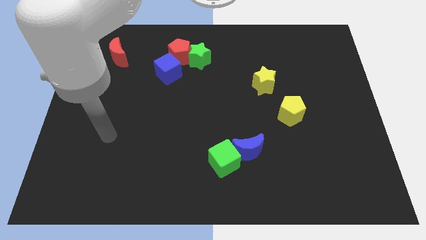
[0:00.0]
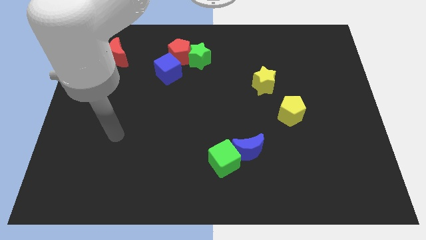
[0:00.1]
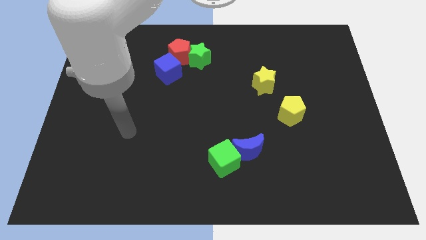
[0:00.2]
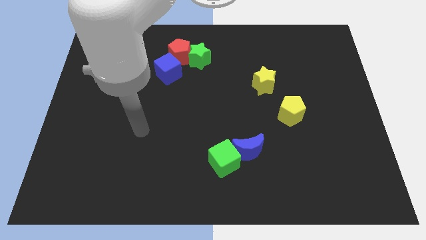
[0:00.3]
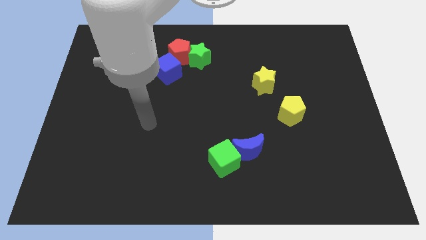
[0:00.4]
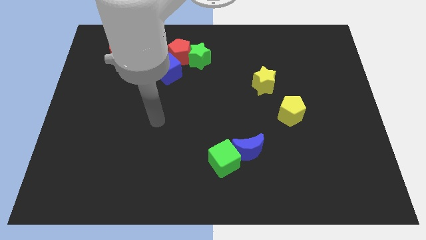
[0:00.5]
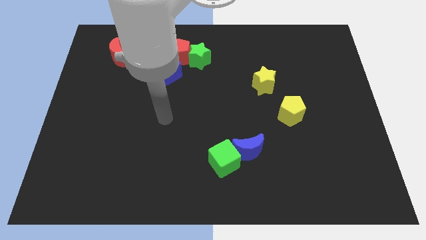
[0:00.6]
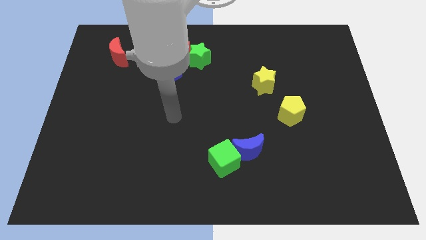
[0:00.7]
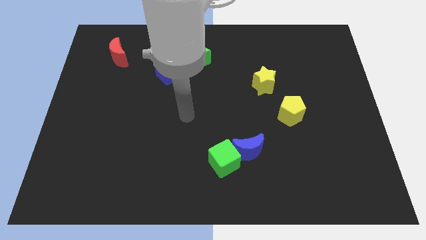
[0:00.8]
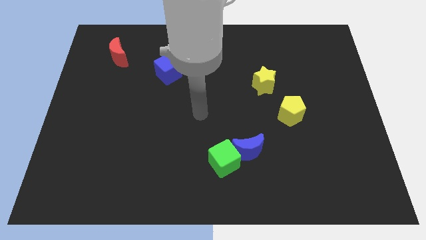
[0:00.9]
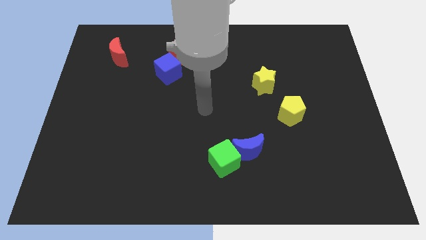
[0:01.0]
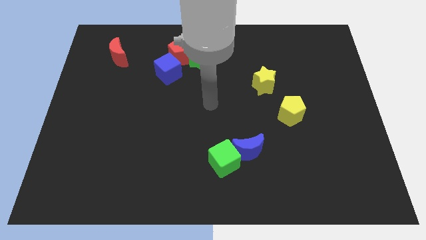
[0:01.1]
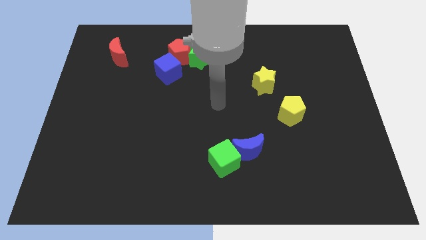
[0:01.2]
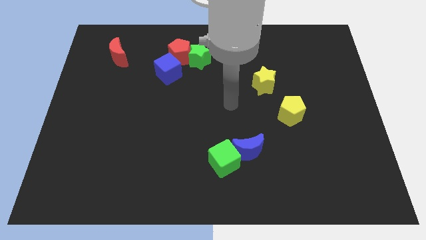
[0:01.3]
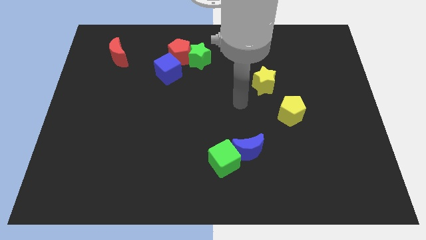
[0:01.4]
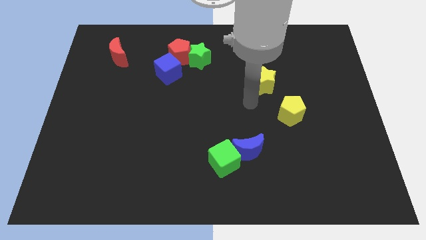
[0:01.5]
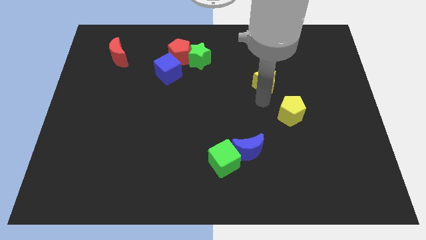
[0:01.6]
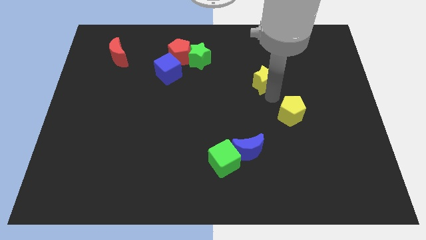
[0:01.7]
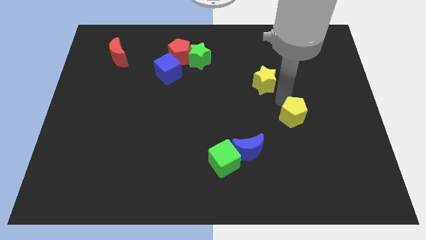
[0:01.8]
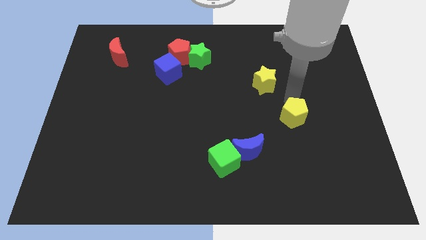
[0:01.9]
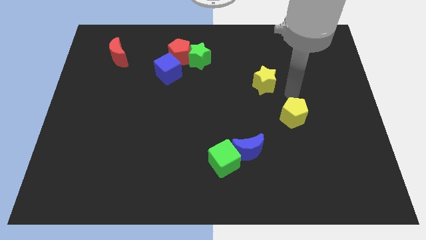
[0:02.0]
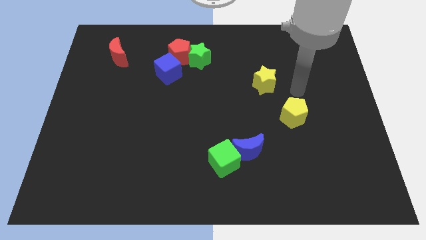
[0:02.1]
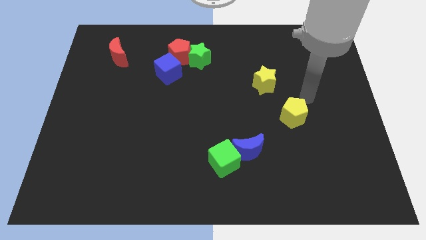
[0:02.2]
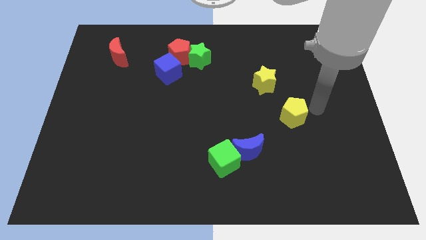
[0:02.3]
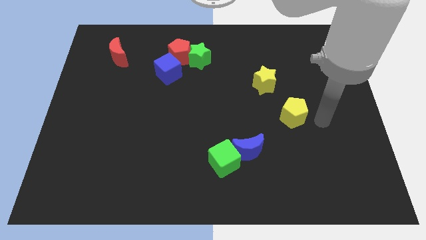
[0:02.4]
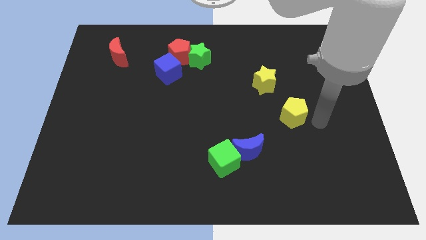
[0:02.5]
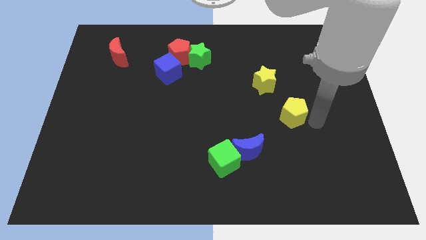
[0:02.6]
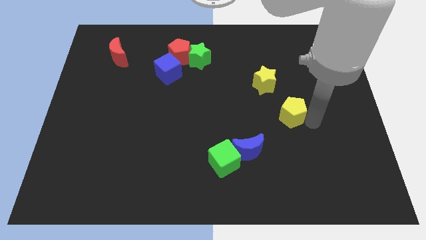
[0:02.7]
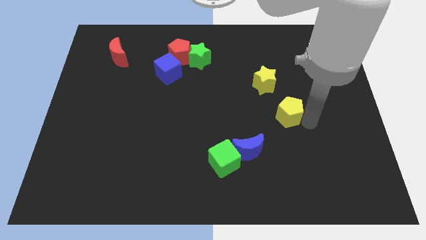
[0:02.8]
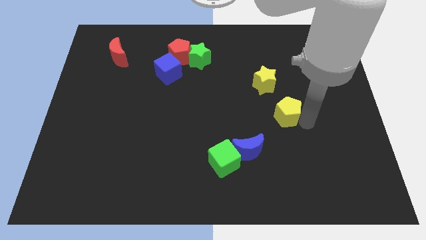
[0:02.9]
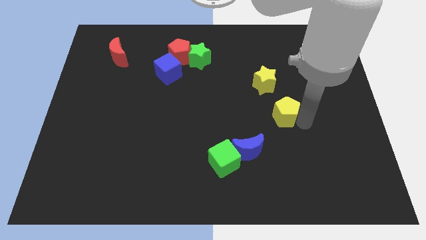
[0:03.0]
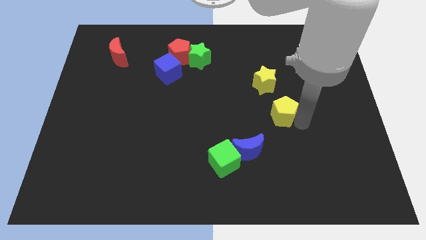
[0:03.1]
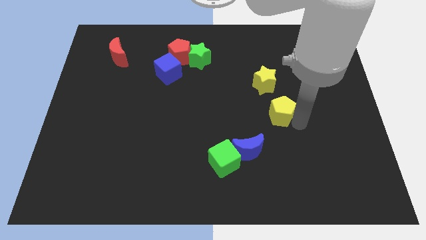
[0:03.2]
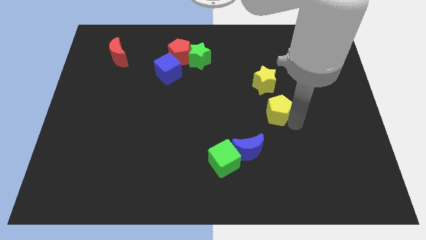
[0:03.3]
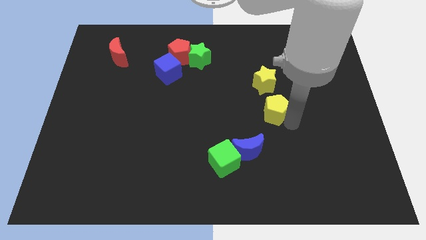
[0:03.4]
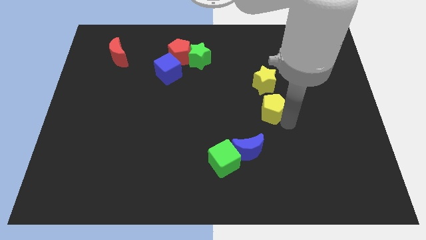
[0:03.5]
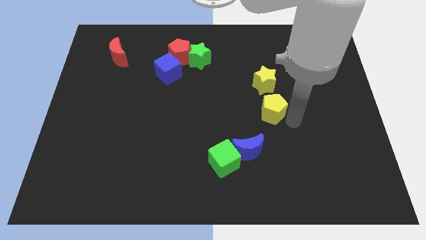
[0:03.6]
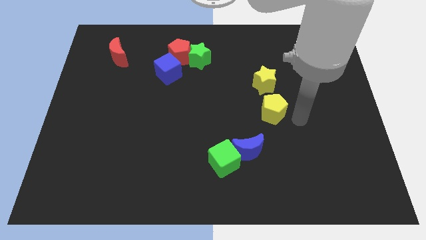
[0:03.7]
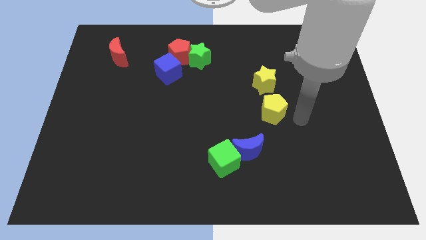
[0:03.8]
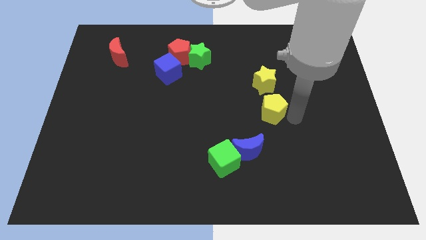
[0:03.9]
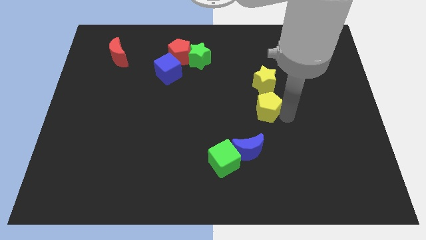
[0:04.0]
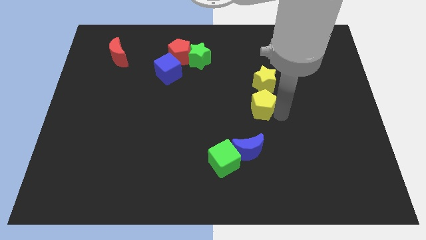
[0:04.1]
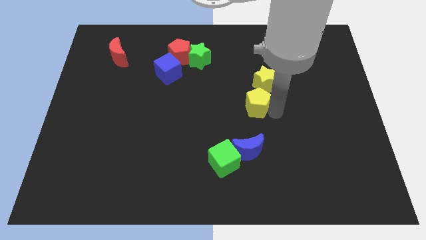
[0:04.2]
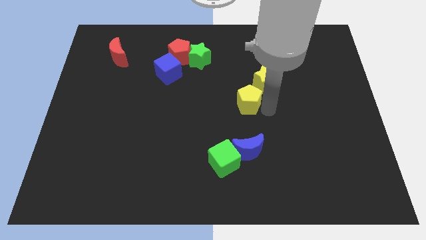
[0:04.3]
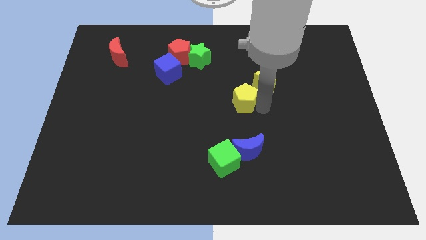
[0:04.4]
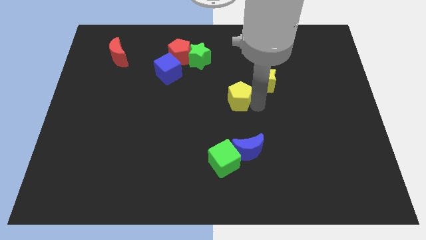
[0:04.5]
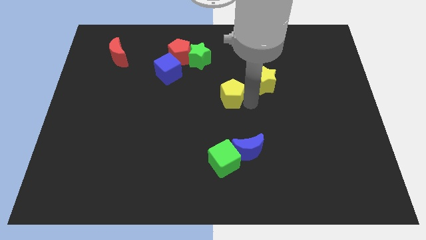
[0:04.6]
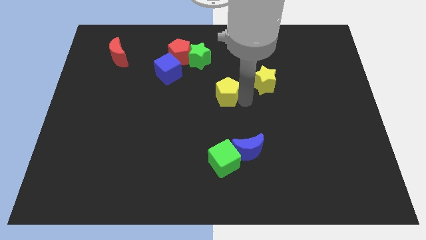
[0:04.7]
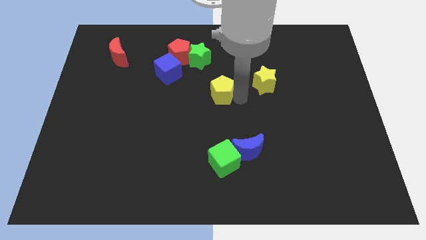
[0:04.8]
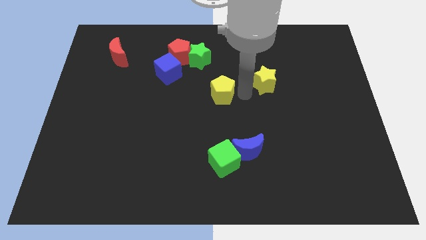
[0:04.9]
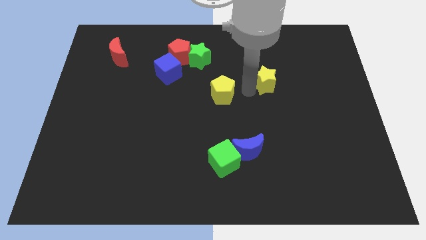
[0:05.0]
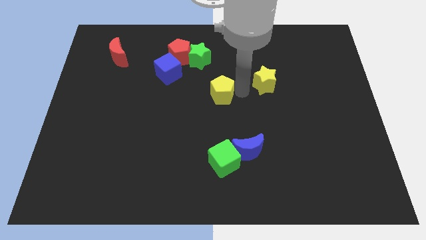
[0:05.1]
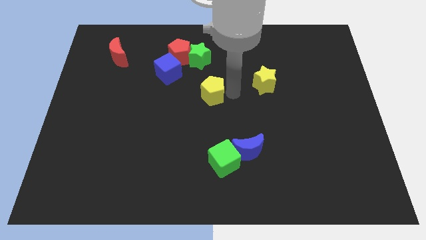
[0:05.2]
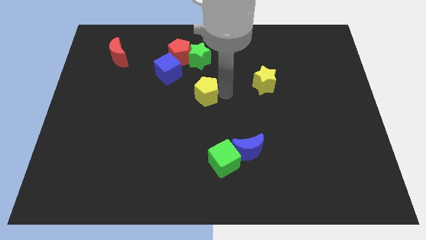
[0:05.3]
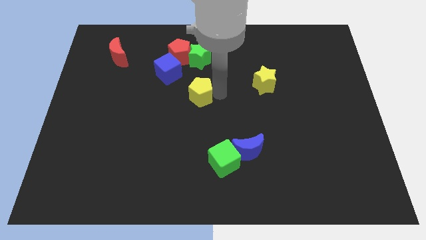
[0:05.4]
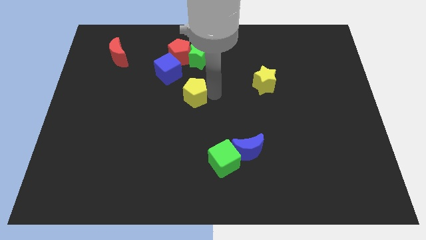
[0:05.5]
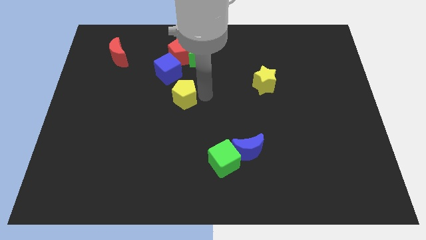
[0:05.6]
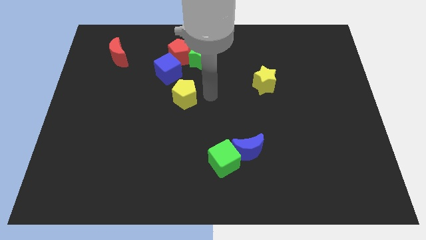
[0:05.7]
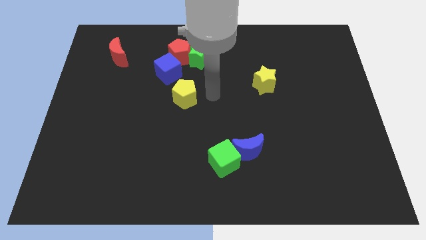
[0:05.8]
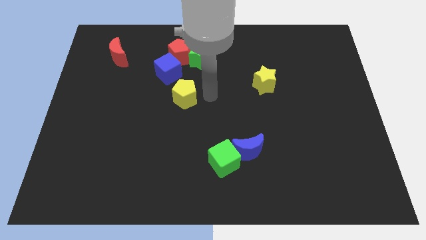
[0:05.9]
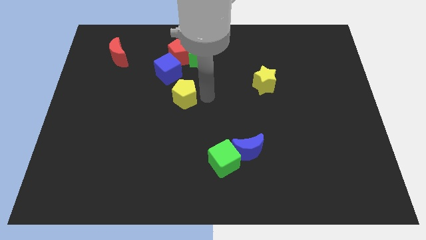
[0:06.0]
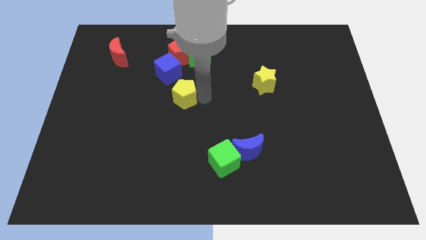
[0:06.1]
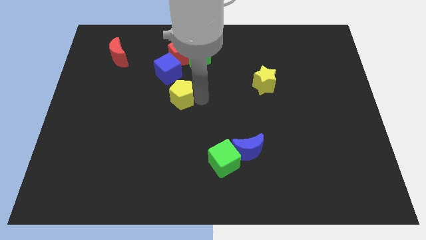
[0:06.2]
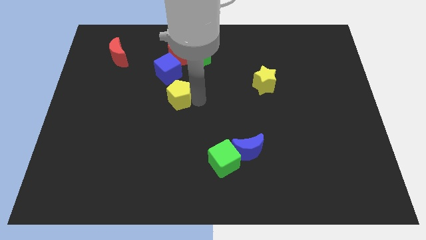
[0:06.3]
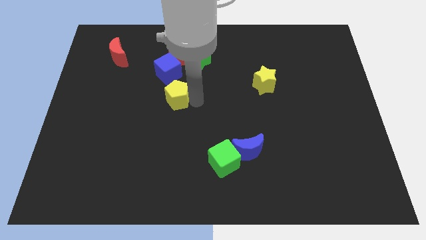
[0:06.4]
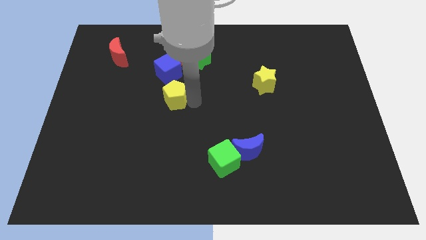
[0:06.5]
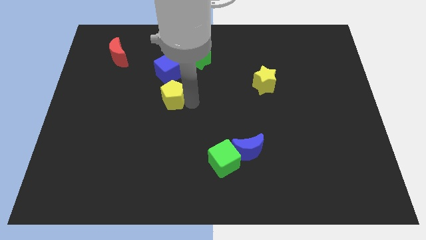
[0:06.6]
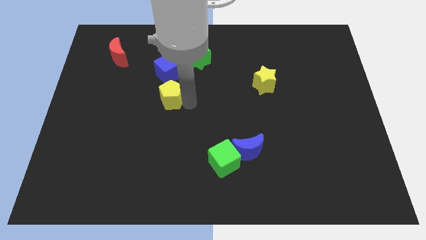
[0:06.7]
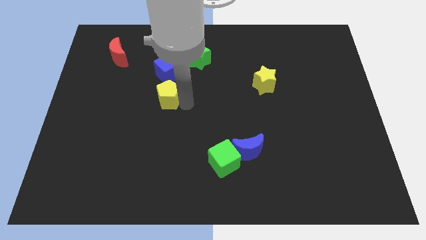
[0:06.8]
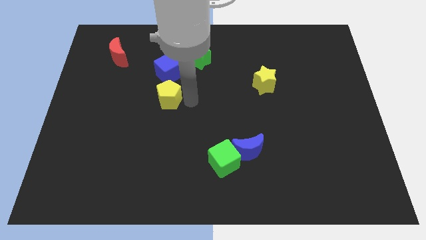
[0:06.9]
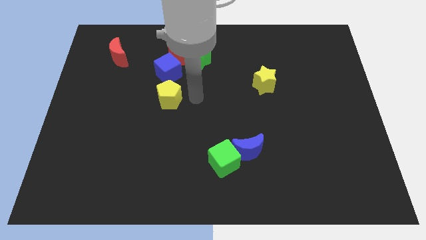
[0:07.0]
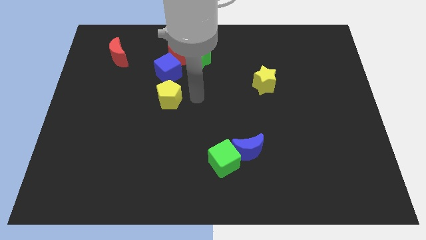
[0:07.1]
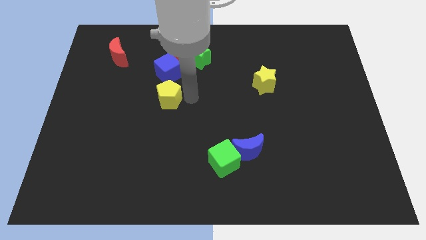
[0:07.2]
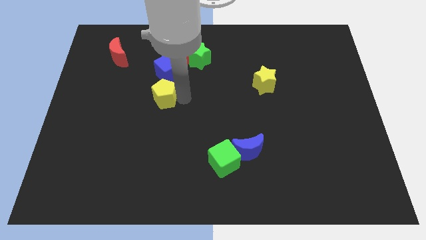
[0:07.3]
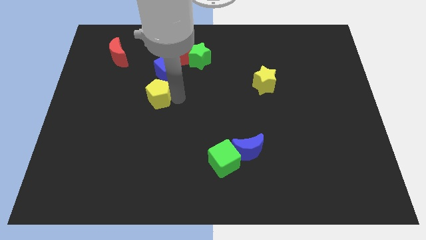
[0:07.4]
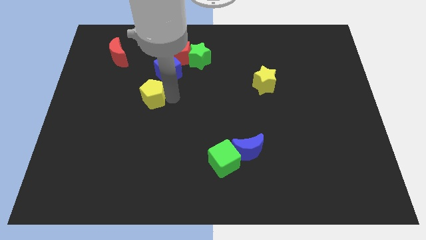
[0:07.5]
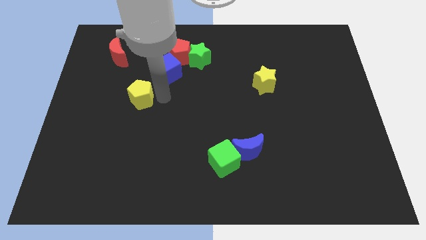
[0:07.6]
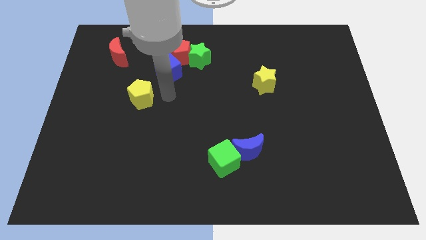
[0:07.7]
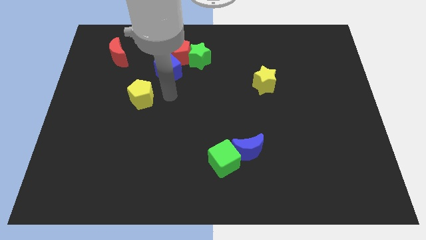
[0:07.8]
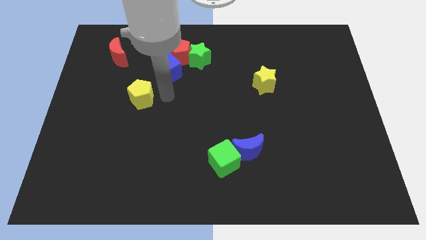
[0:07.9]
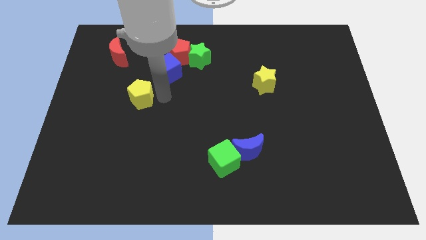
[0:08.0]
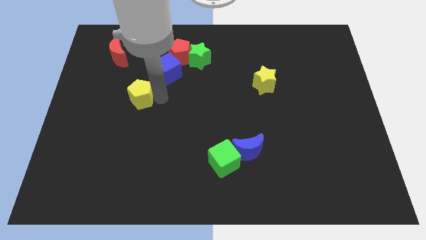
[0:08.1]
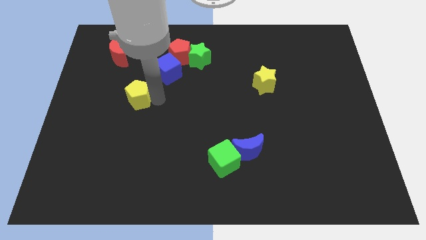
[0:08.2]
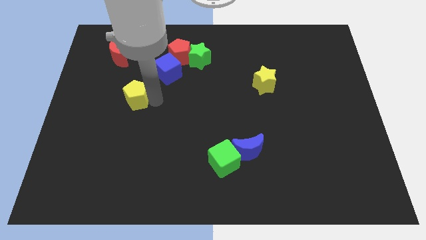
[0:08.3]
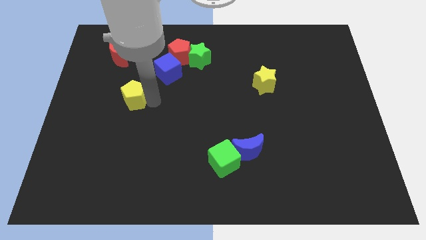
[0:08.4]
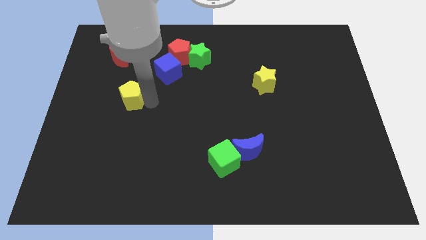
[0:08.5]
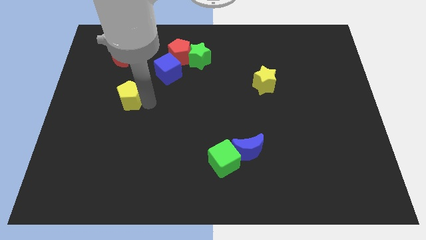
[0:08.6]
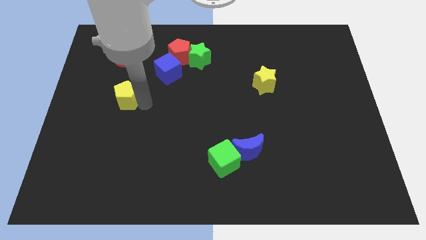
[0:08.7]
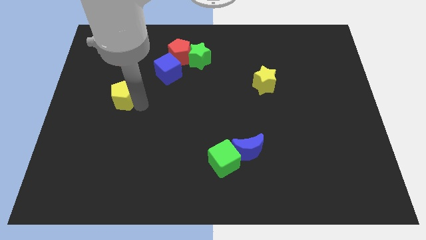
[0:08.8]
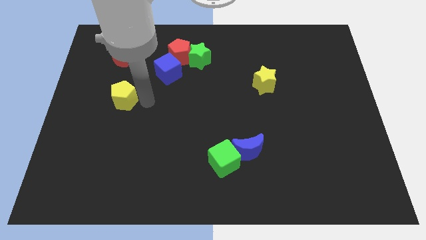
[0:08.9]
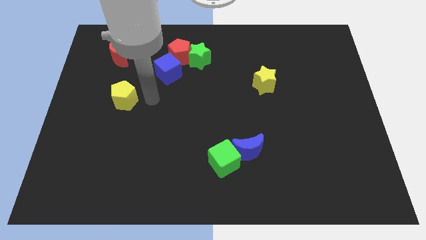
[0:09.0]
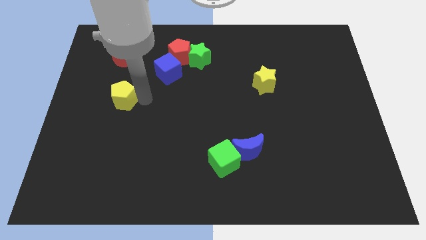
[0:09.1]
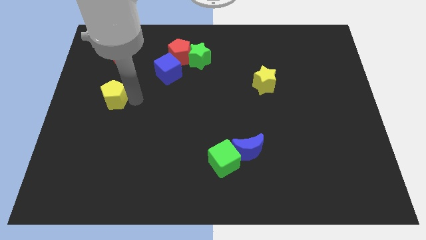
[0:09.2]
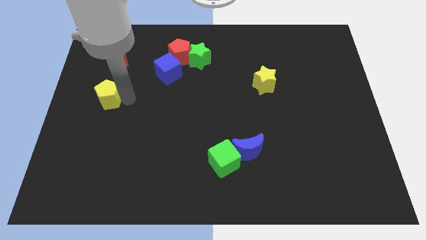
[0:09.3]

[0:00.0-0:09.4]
put the yellow pentagon to the left side
